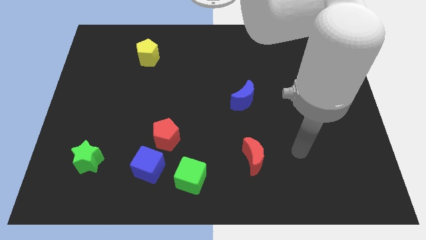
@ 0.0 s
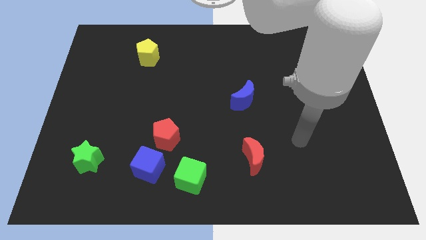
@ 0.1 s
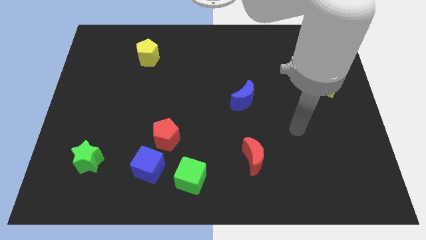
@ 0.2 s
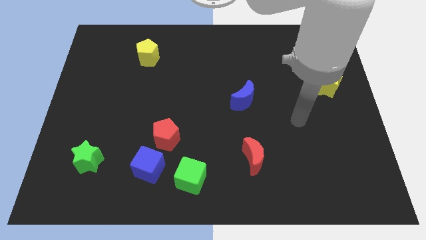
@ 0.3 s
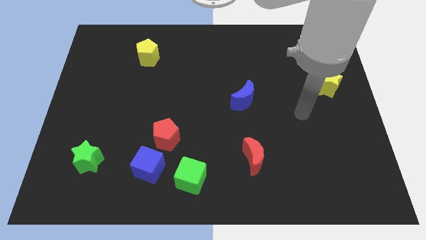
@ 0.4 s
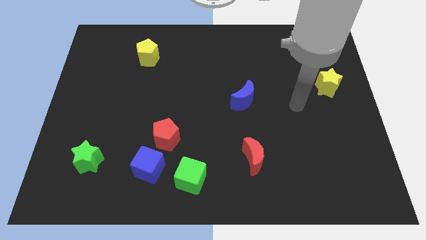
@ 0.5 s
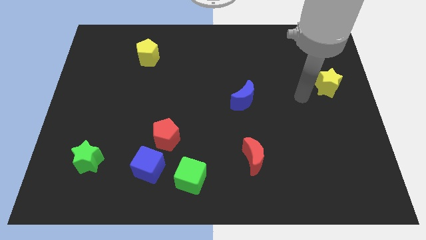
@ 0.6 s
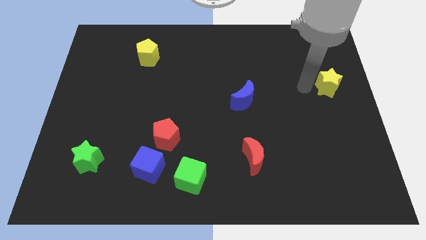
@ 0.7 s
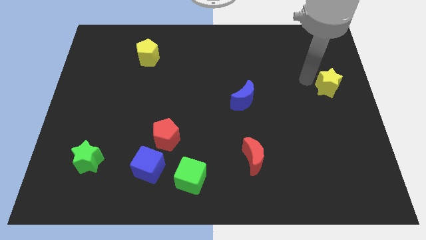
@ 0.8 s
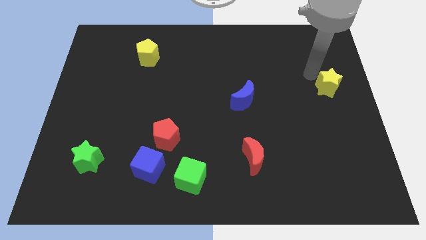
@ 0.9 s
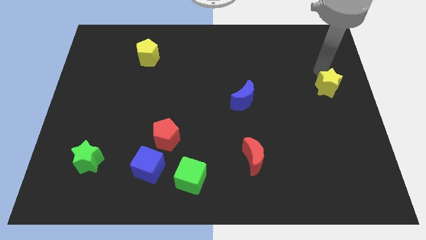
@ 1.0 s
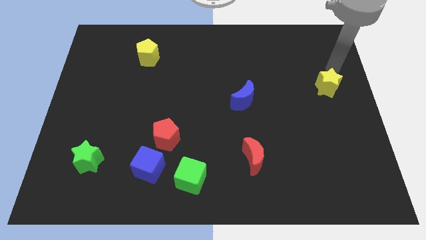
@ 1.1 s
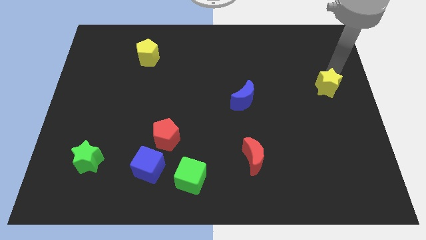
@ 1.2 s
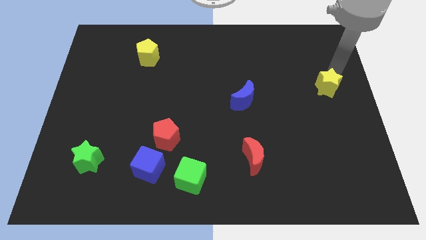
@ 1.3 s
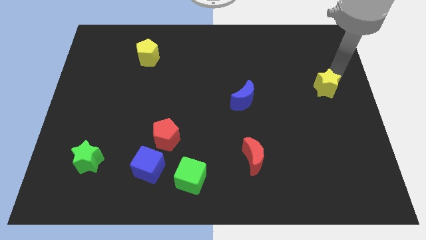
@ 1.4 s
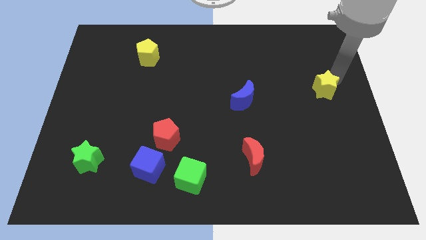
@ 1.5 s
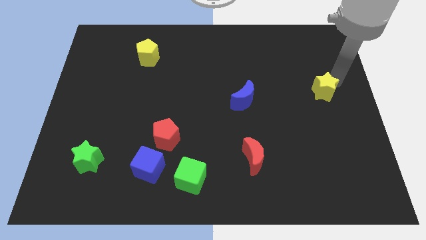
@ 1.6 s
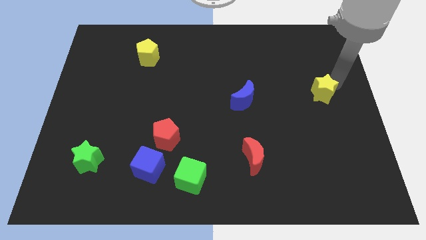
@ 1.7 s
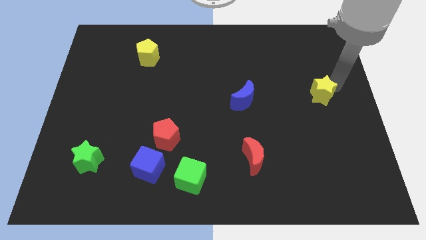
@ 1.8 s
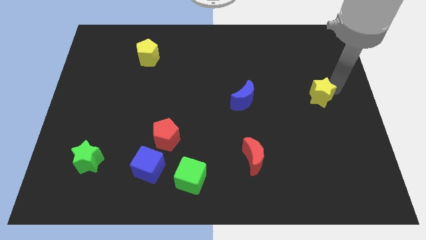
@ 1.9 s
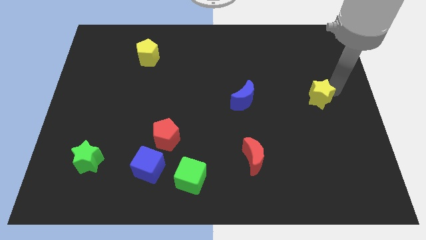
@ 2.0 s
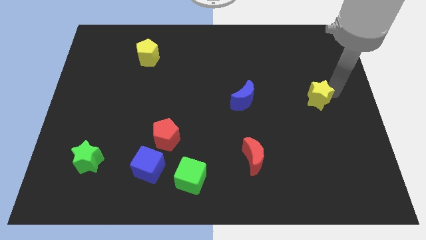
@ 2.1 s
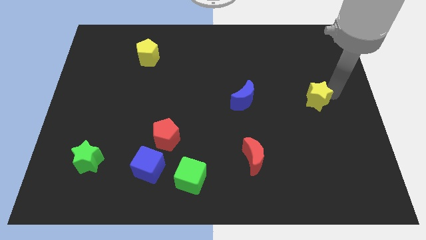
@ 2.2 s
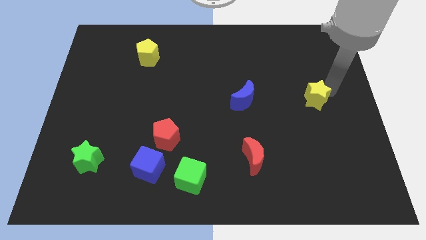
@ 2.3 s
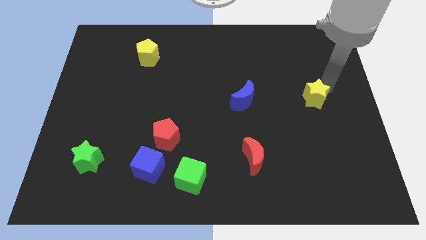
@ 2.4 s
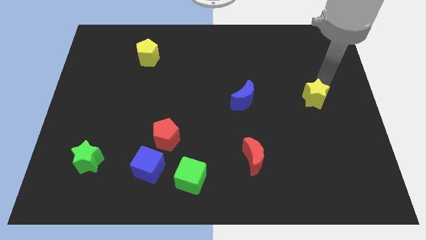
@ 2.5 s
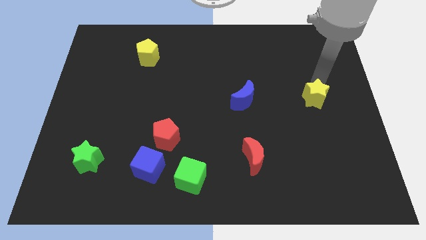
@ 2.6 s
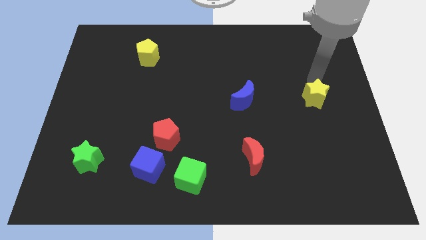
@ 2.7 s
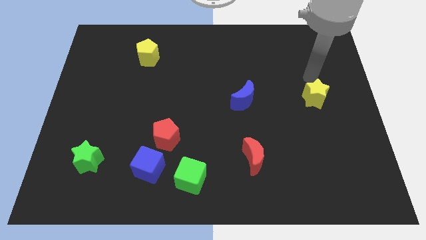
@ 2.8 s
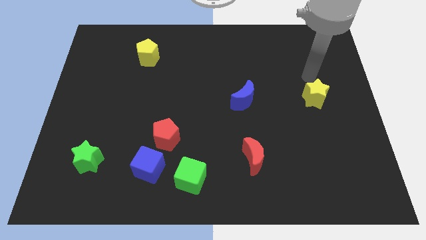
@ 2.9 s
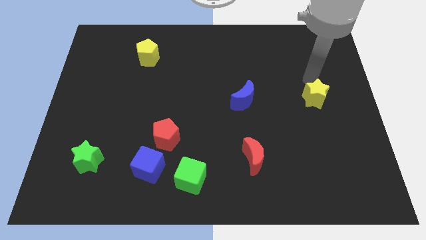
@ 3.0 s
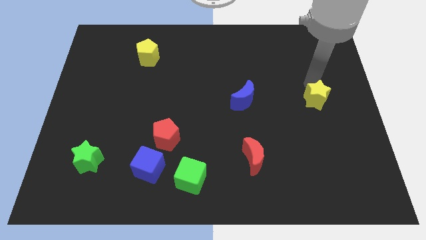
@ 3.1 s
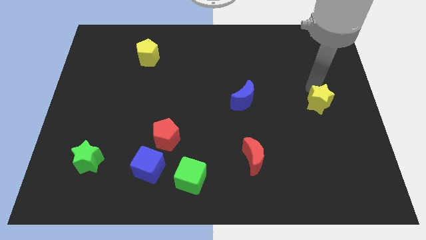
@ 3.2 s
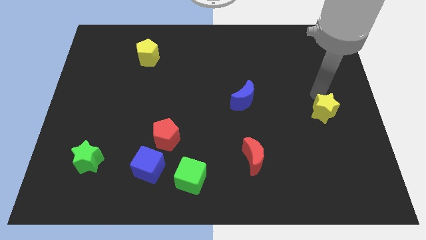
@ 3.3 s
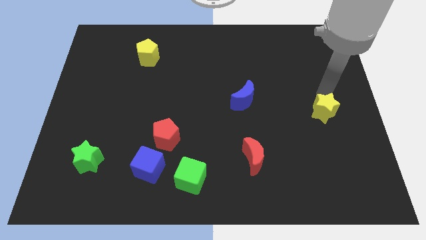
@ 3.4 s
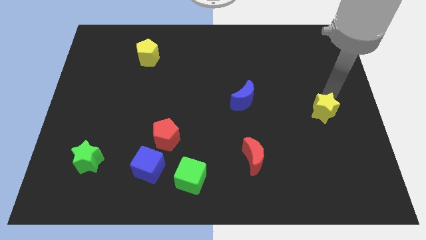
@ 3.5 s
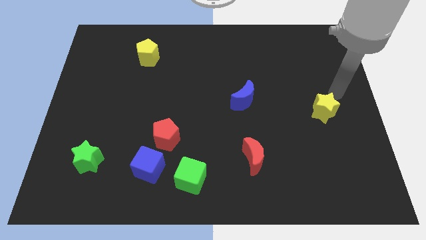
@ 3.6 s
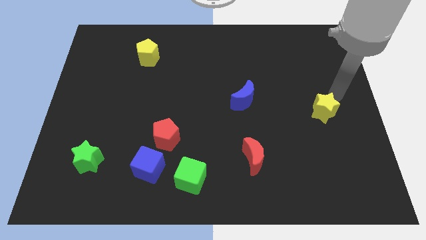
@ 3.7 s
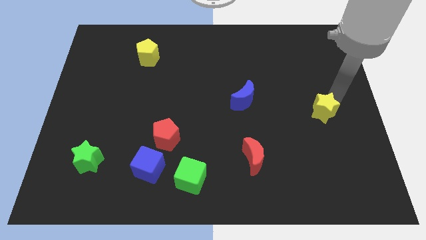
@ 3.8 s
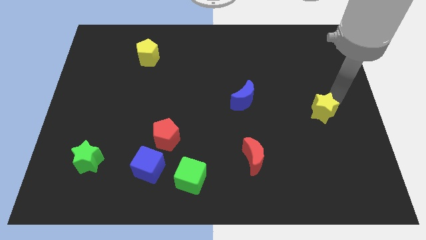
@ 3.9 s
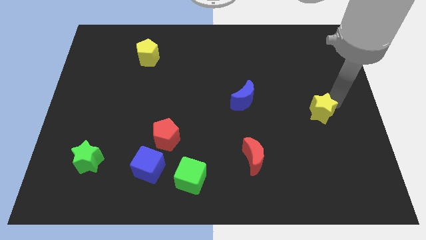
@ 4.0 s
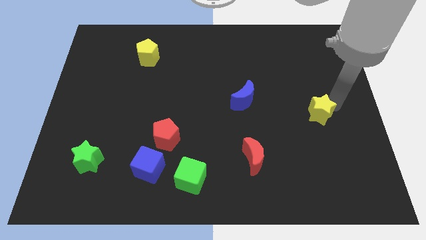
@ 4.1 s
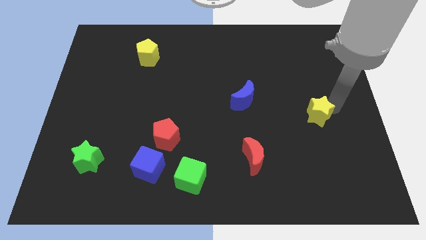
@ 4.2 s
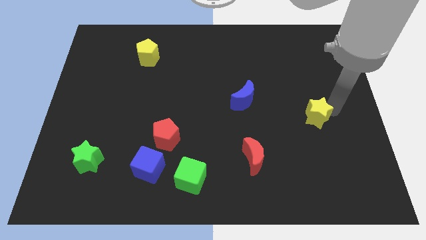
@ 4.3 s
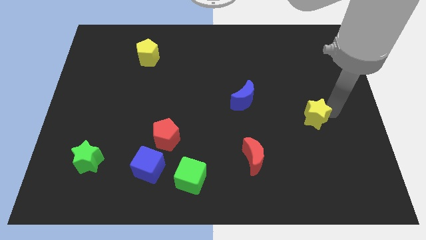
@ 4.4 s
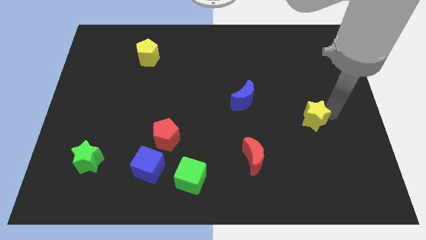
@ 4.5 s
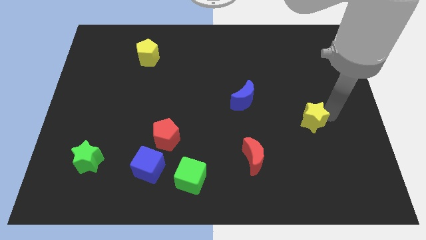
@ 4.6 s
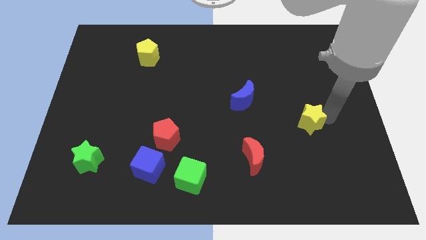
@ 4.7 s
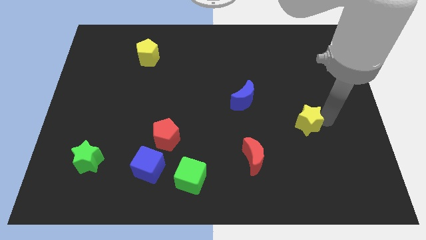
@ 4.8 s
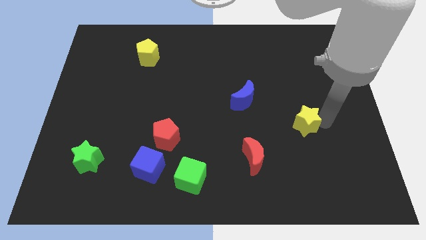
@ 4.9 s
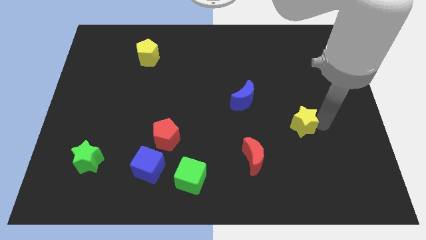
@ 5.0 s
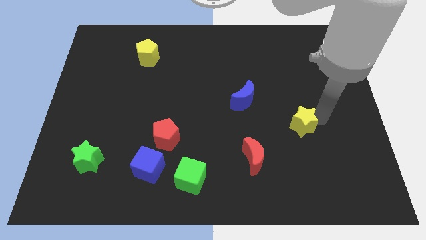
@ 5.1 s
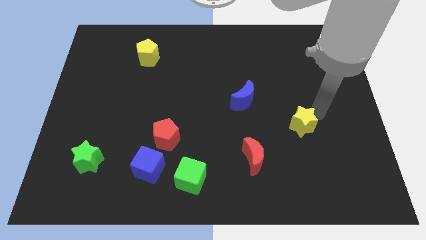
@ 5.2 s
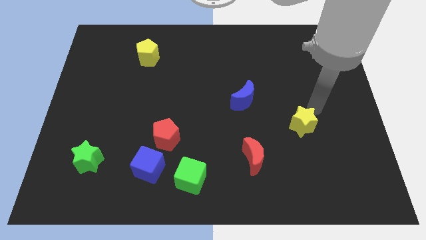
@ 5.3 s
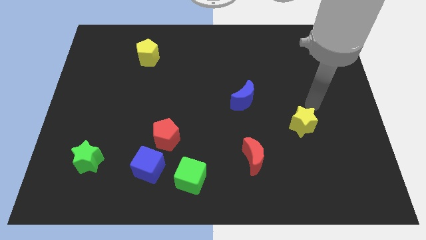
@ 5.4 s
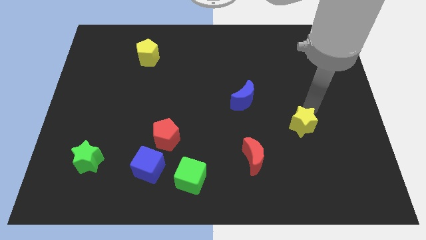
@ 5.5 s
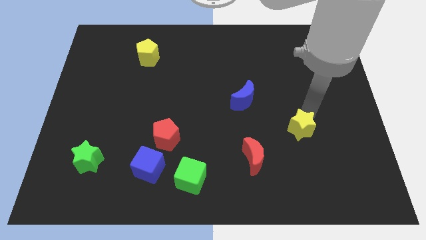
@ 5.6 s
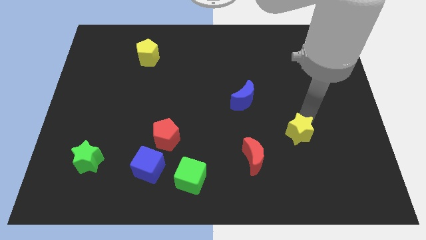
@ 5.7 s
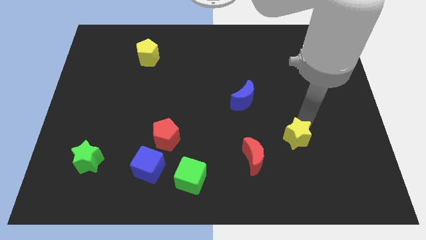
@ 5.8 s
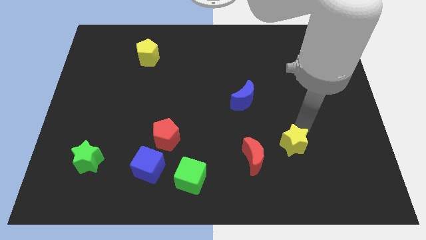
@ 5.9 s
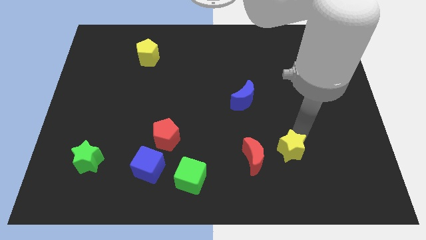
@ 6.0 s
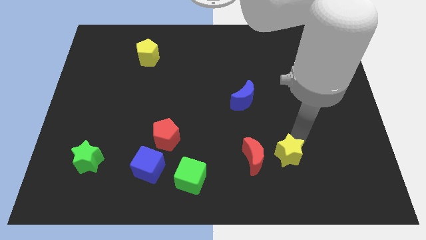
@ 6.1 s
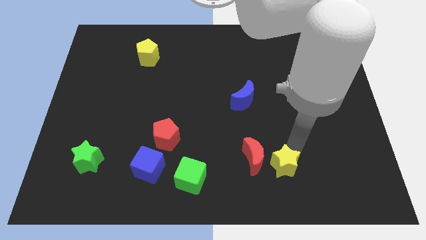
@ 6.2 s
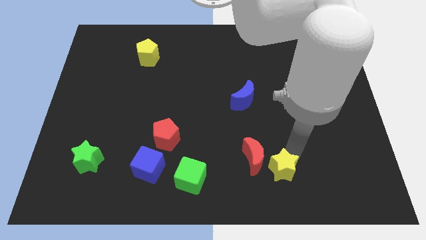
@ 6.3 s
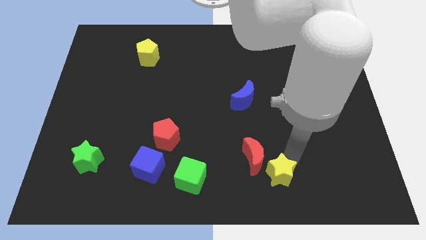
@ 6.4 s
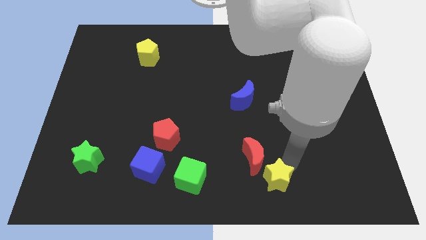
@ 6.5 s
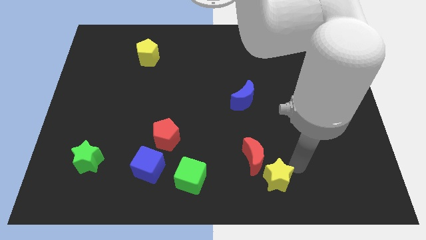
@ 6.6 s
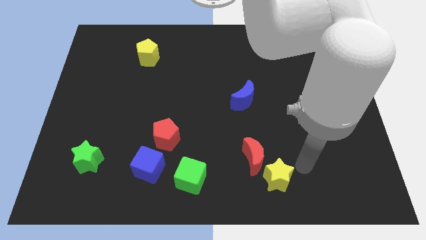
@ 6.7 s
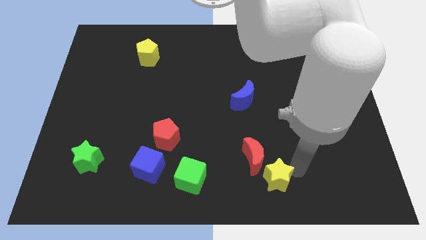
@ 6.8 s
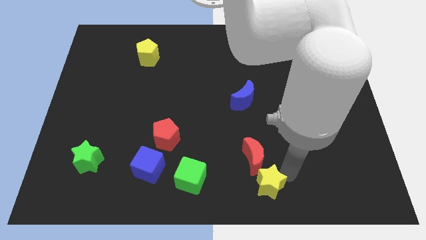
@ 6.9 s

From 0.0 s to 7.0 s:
move the yellow star to the bottom side

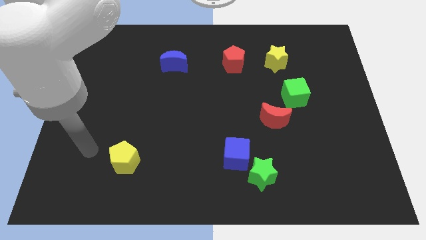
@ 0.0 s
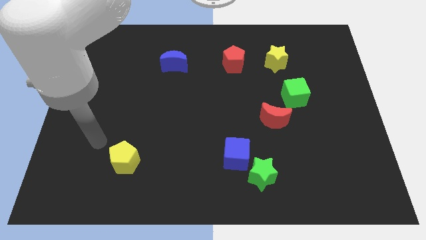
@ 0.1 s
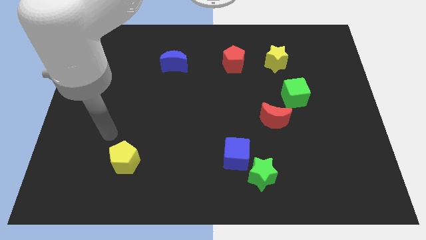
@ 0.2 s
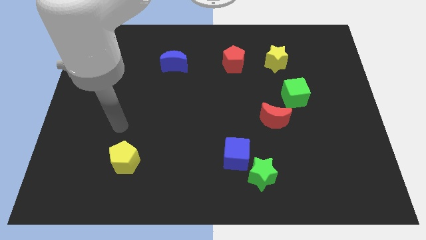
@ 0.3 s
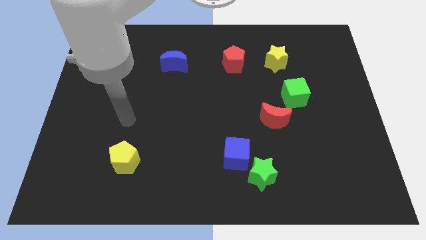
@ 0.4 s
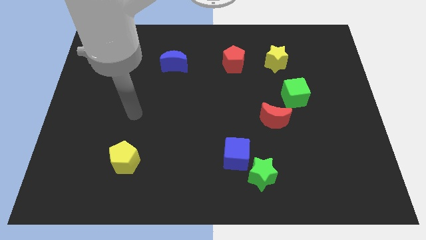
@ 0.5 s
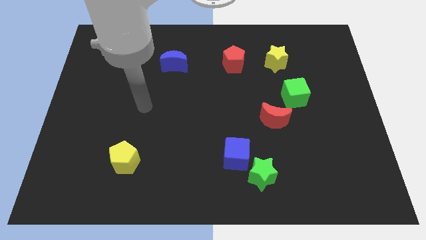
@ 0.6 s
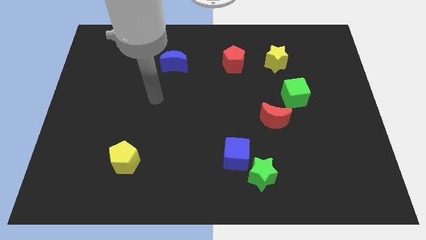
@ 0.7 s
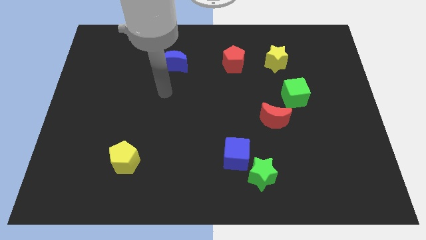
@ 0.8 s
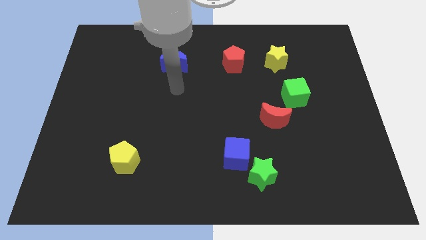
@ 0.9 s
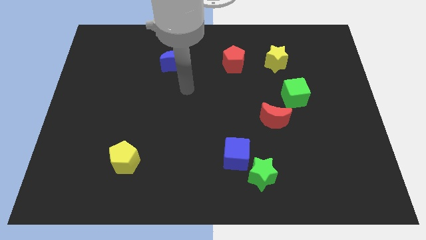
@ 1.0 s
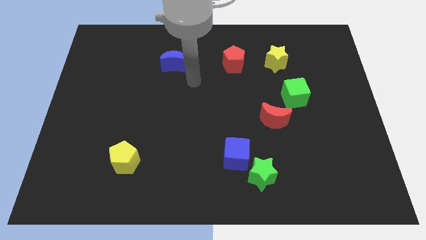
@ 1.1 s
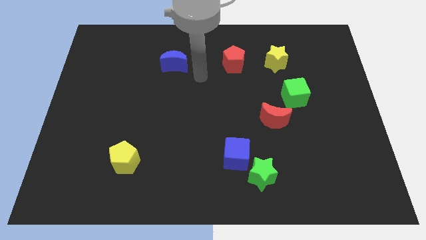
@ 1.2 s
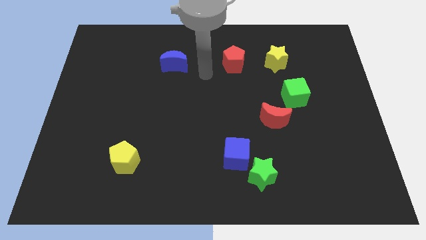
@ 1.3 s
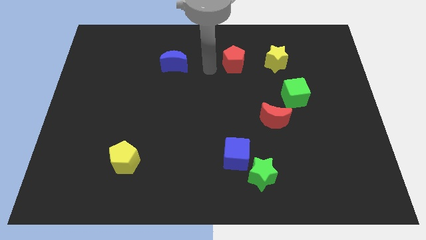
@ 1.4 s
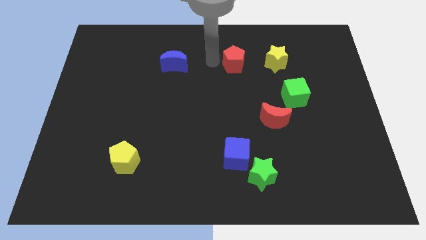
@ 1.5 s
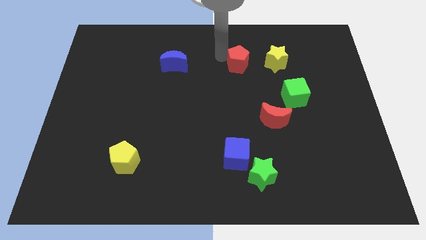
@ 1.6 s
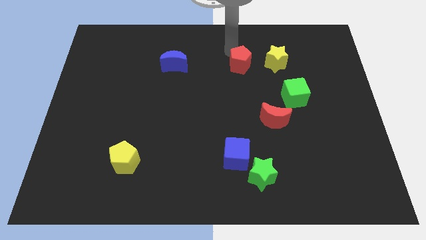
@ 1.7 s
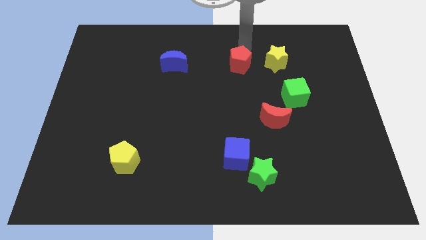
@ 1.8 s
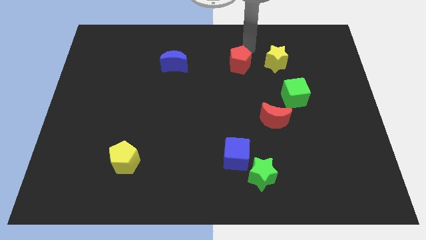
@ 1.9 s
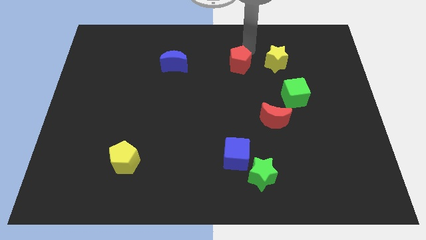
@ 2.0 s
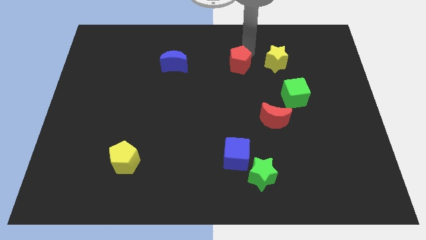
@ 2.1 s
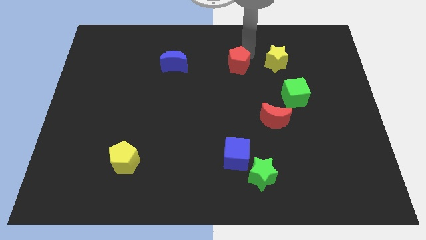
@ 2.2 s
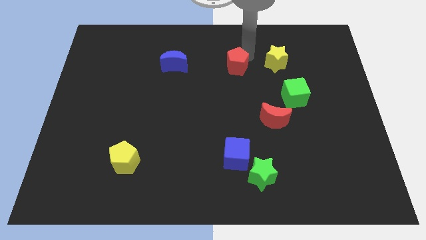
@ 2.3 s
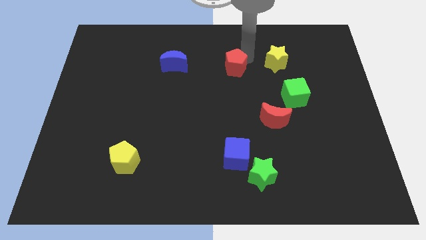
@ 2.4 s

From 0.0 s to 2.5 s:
put the red pentagon to the center
